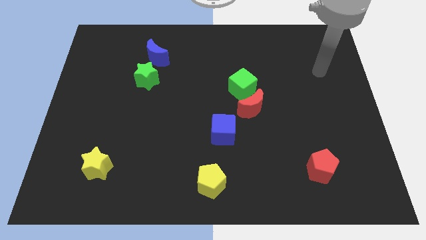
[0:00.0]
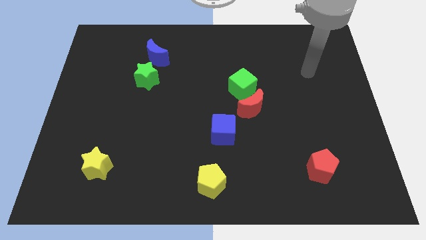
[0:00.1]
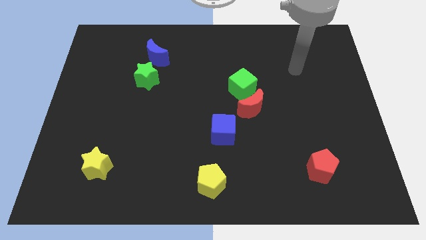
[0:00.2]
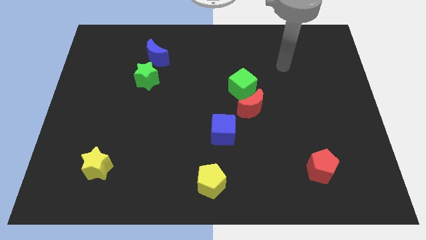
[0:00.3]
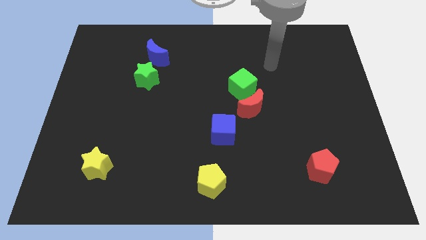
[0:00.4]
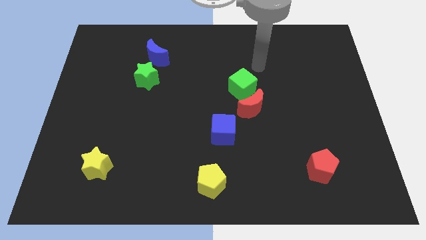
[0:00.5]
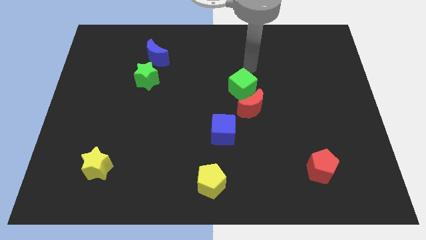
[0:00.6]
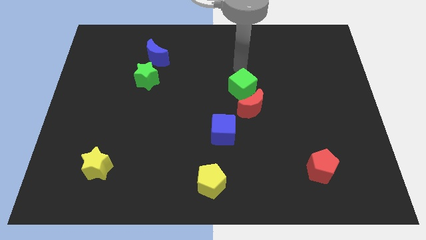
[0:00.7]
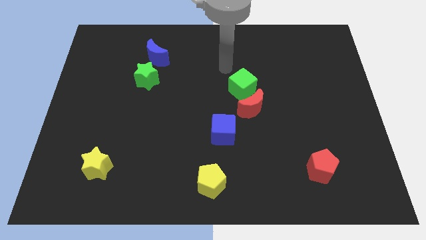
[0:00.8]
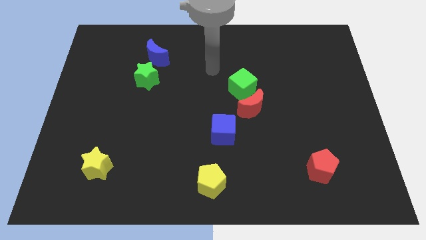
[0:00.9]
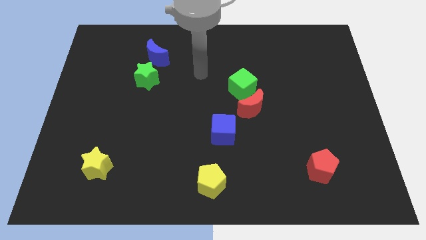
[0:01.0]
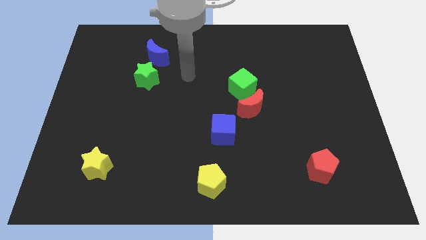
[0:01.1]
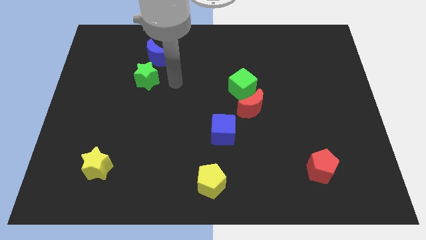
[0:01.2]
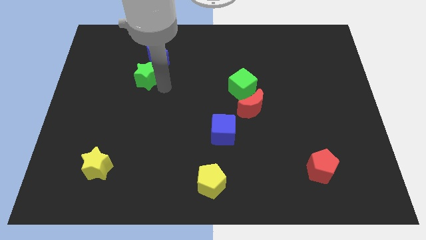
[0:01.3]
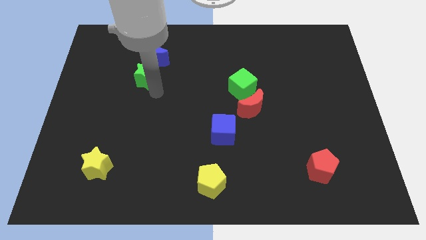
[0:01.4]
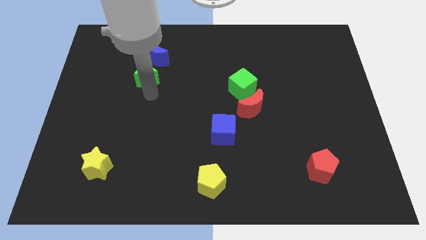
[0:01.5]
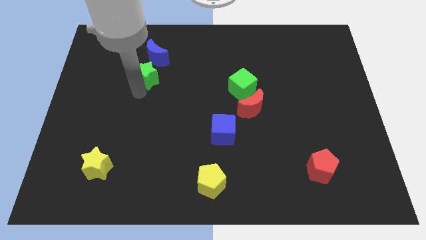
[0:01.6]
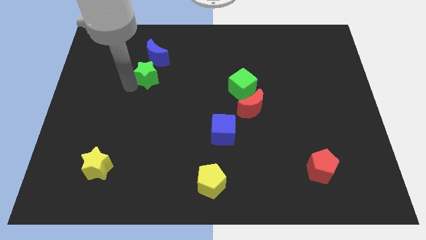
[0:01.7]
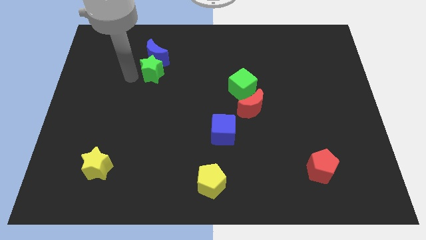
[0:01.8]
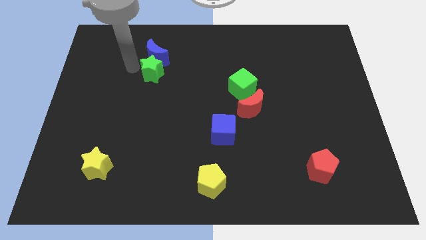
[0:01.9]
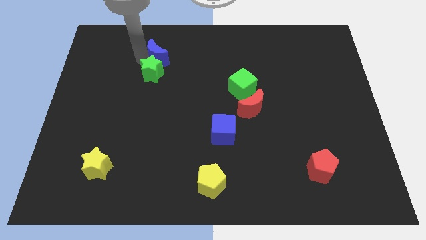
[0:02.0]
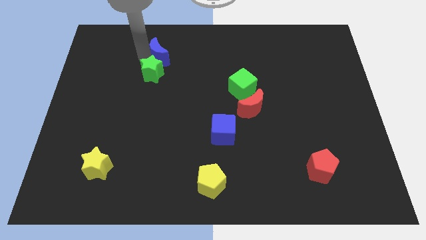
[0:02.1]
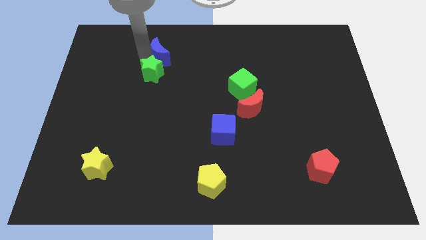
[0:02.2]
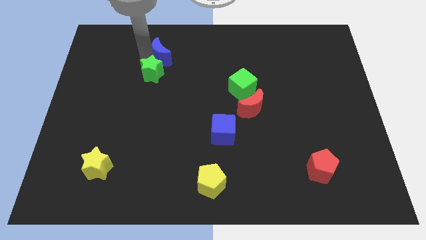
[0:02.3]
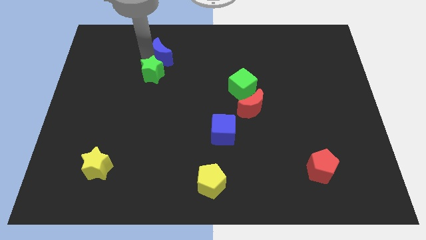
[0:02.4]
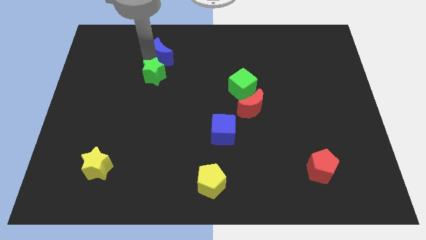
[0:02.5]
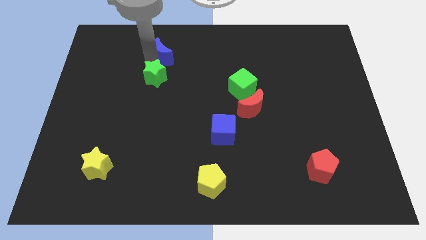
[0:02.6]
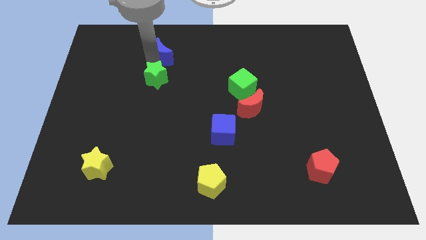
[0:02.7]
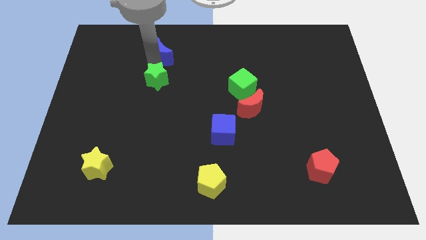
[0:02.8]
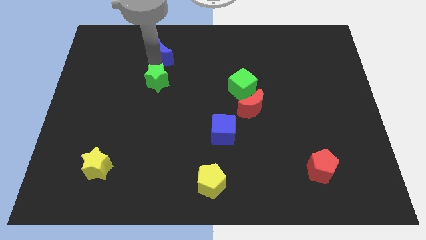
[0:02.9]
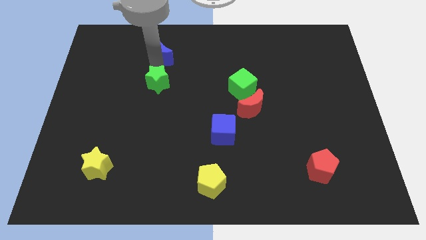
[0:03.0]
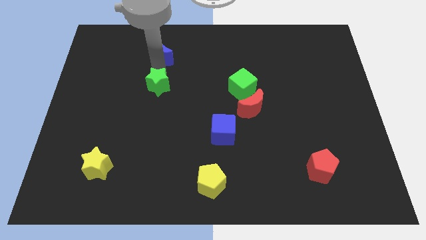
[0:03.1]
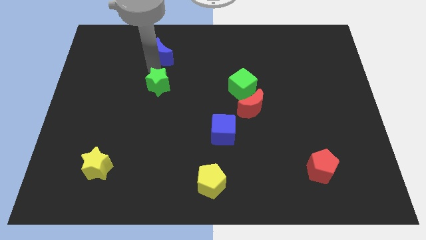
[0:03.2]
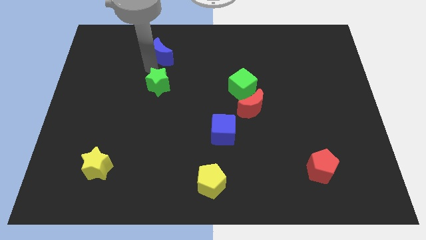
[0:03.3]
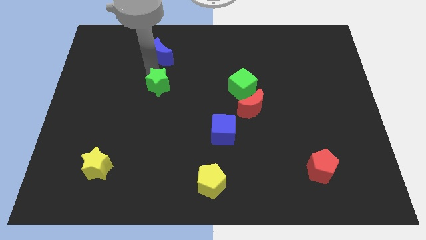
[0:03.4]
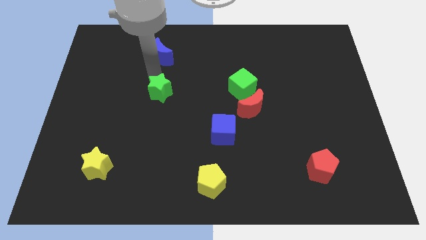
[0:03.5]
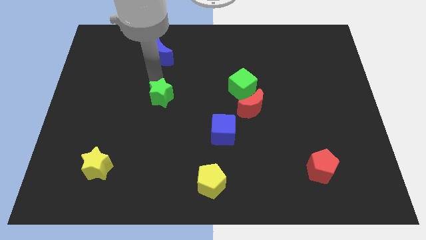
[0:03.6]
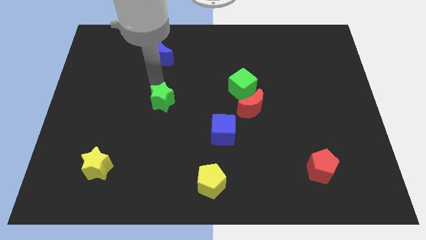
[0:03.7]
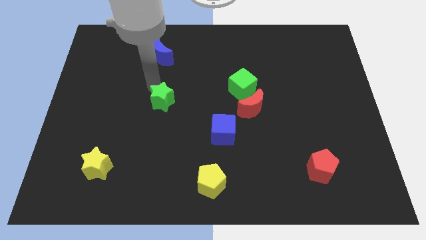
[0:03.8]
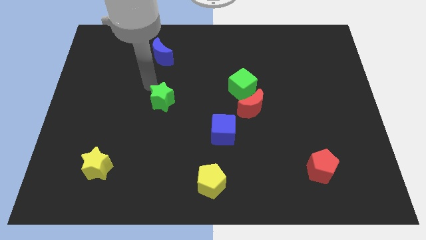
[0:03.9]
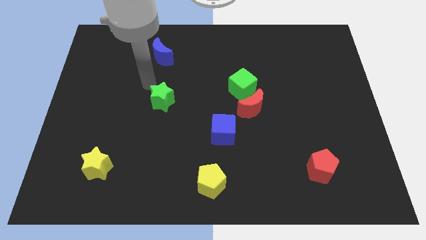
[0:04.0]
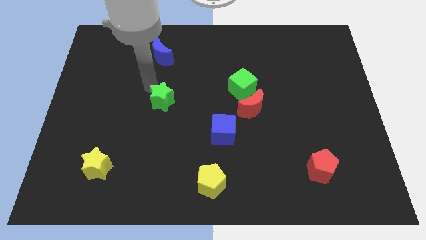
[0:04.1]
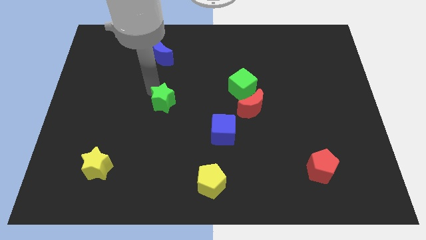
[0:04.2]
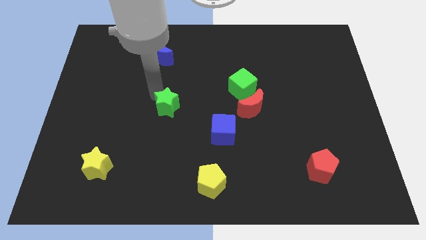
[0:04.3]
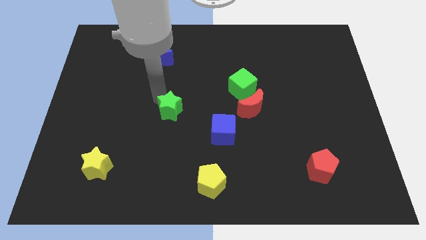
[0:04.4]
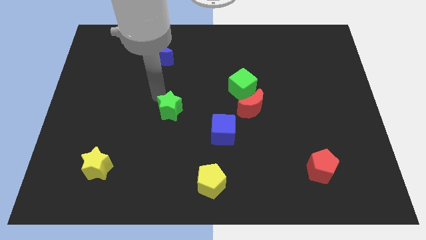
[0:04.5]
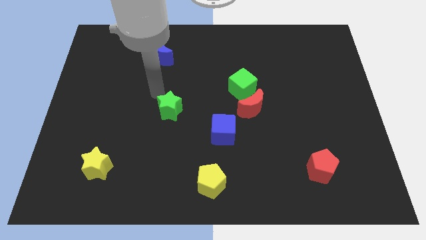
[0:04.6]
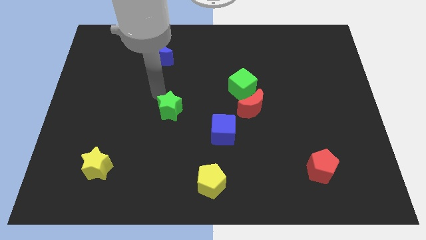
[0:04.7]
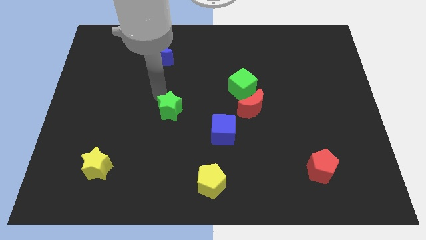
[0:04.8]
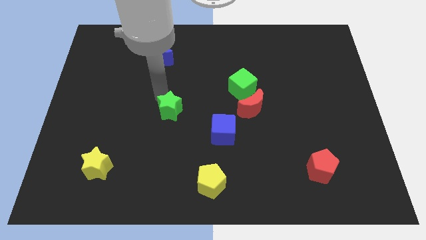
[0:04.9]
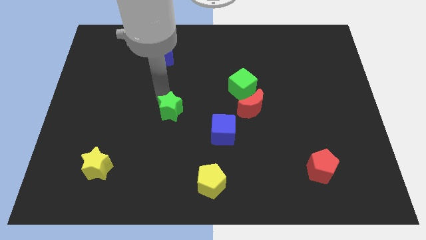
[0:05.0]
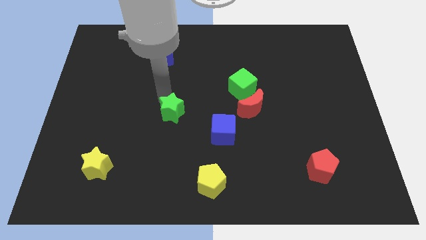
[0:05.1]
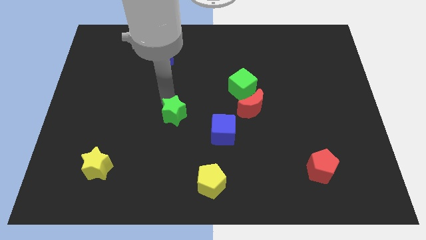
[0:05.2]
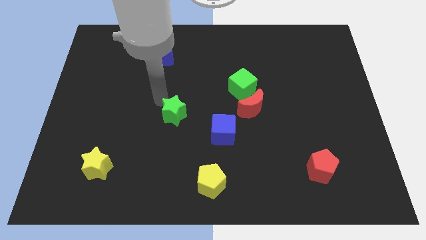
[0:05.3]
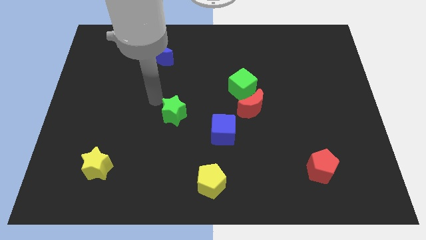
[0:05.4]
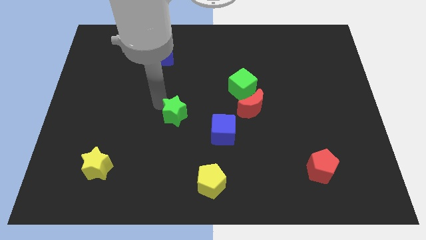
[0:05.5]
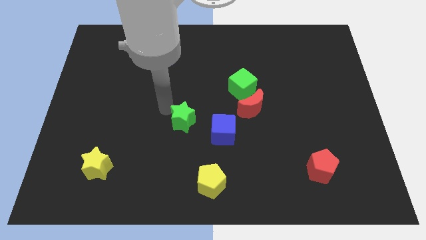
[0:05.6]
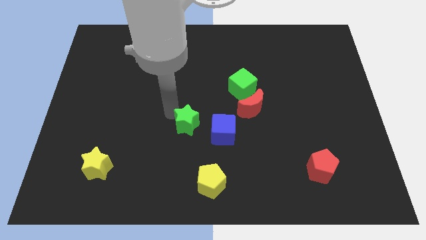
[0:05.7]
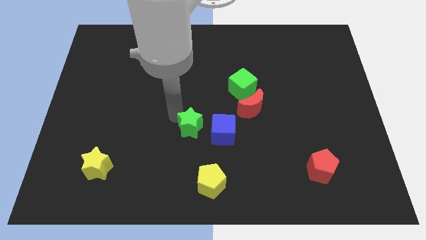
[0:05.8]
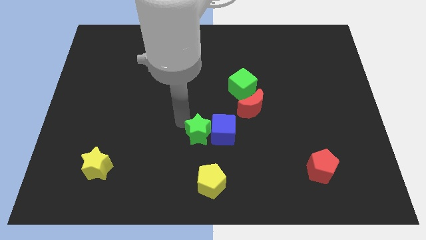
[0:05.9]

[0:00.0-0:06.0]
push the green star downwards and to the right

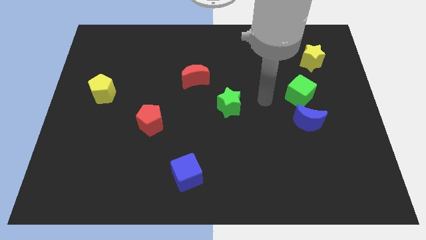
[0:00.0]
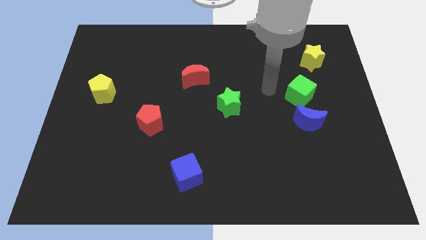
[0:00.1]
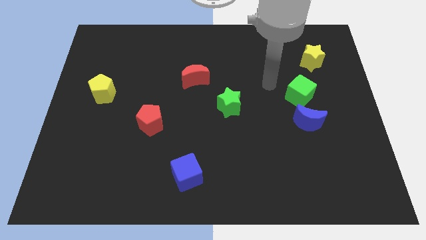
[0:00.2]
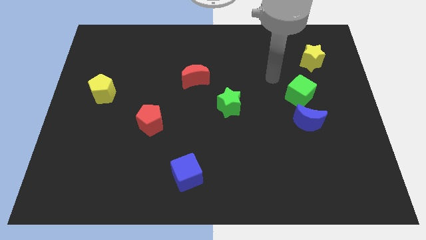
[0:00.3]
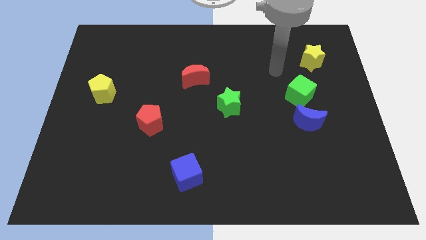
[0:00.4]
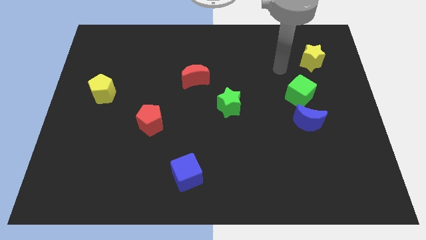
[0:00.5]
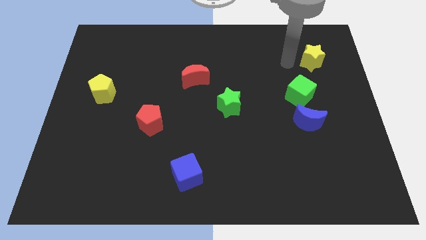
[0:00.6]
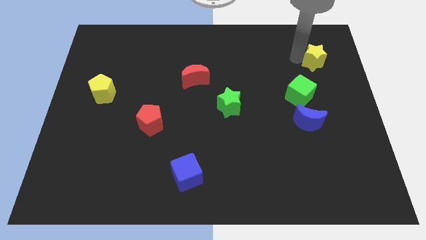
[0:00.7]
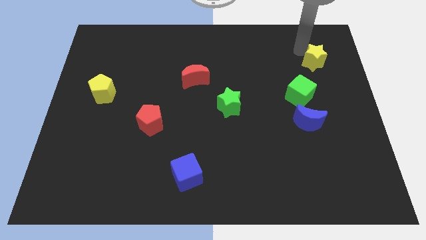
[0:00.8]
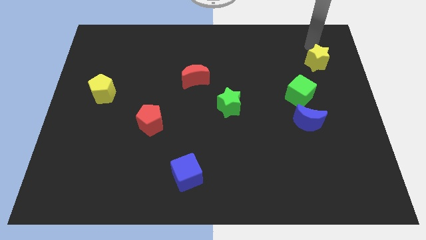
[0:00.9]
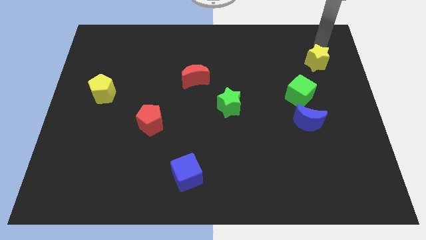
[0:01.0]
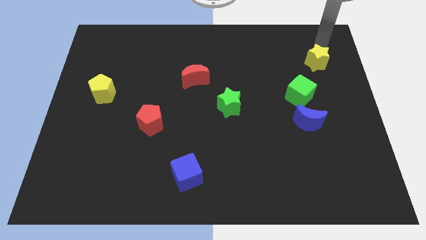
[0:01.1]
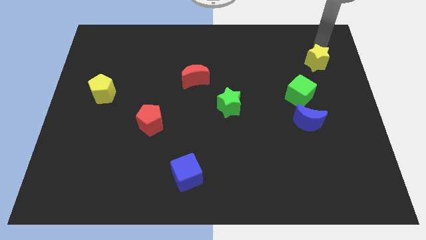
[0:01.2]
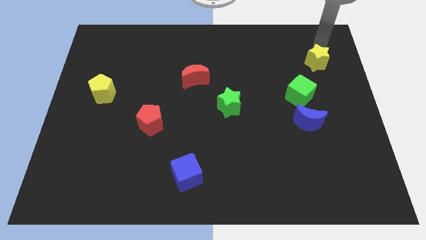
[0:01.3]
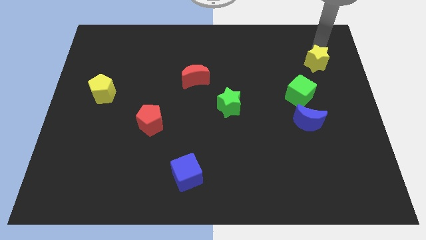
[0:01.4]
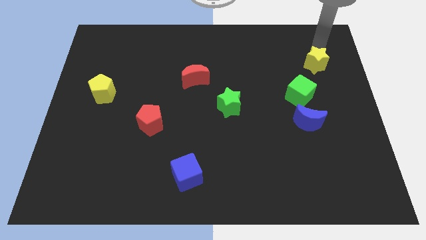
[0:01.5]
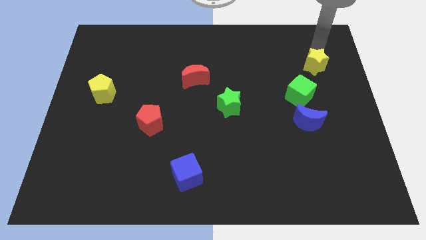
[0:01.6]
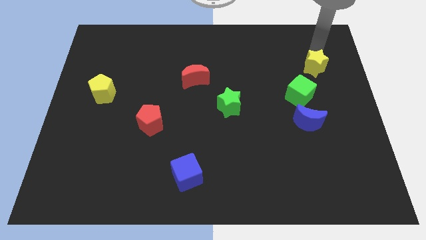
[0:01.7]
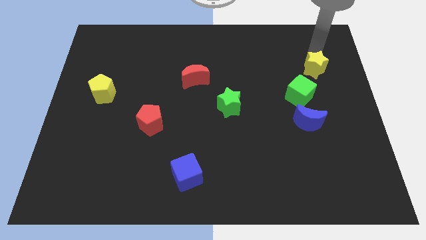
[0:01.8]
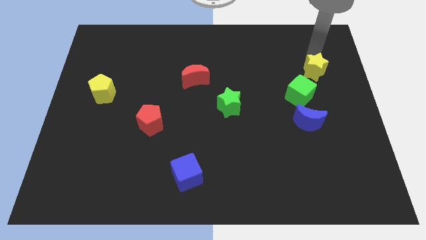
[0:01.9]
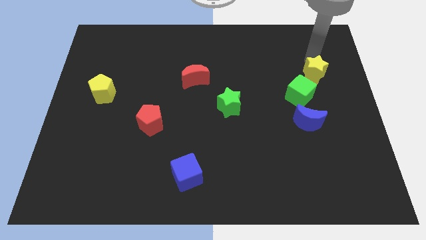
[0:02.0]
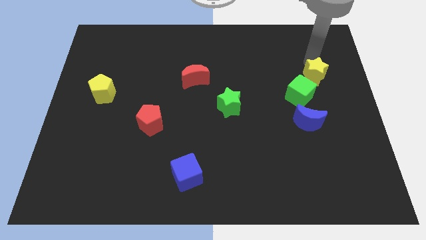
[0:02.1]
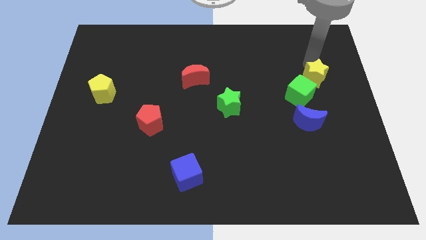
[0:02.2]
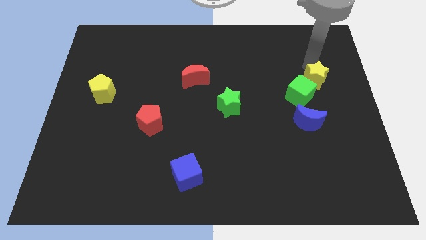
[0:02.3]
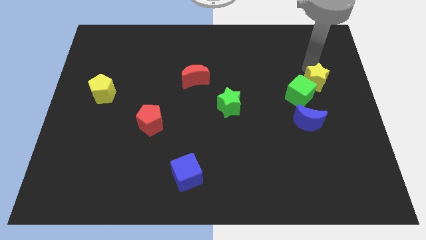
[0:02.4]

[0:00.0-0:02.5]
slide the yellow star somewhat downwards
